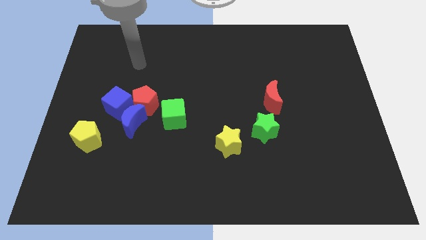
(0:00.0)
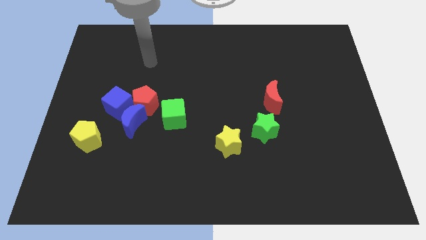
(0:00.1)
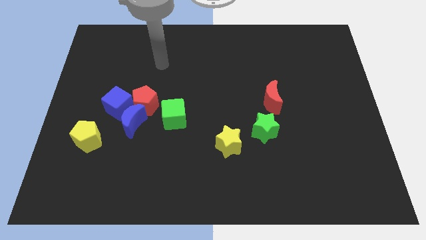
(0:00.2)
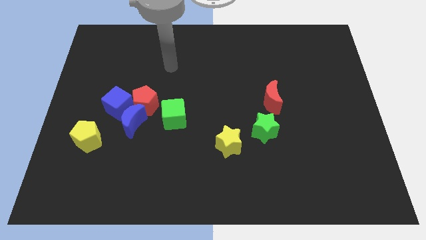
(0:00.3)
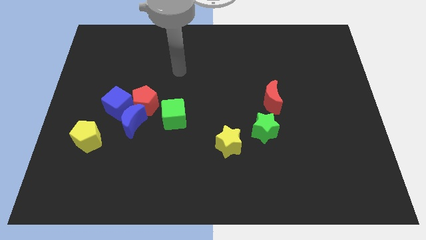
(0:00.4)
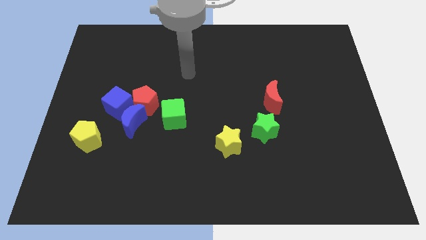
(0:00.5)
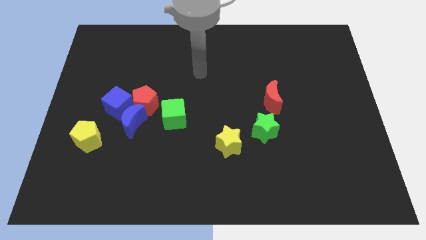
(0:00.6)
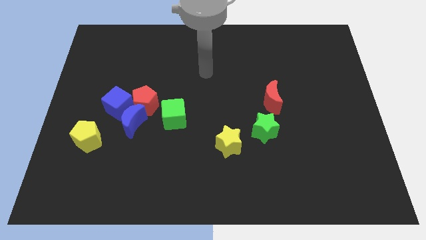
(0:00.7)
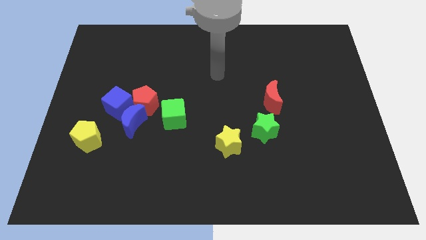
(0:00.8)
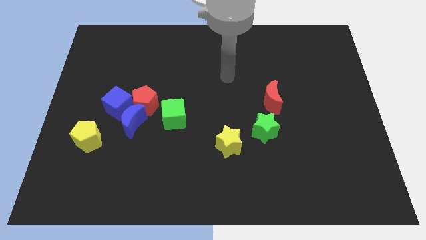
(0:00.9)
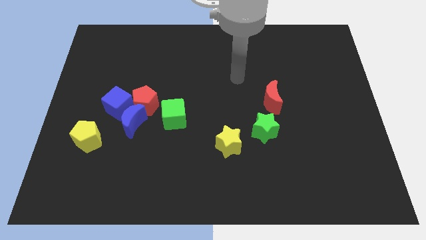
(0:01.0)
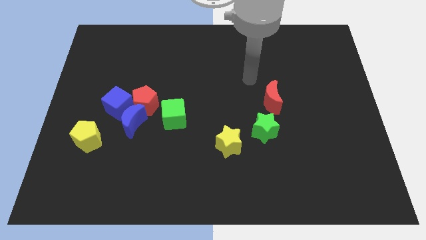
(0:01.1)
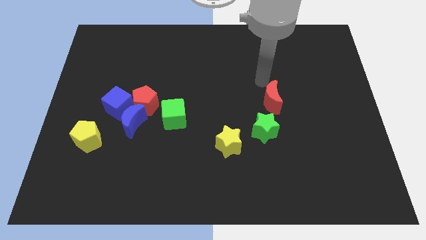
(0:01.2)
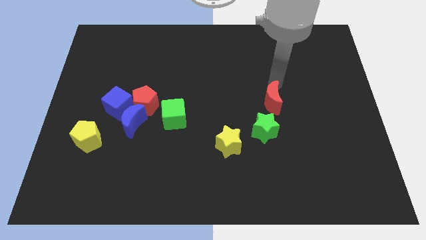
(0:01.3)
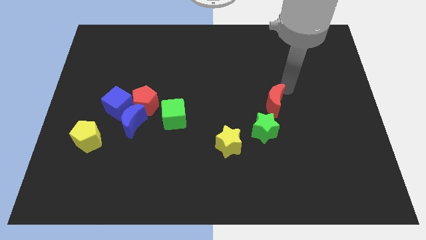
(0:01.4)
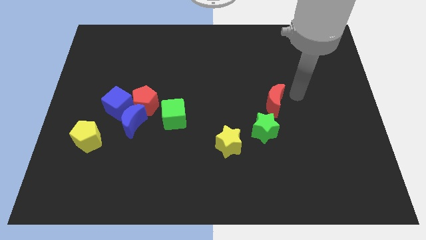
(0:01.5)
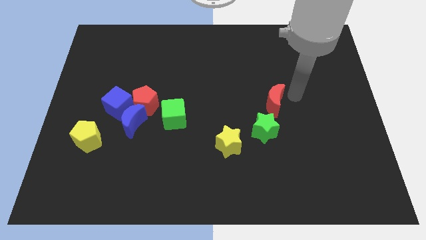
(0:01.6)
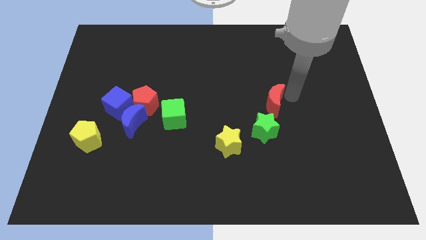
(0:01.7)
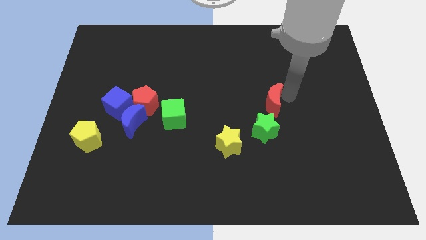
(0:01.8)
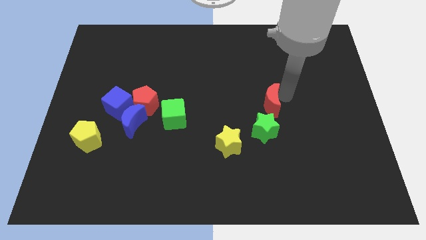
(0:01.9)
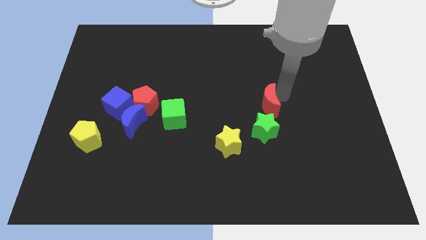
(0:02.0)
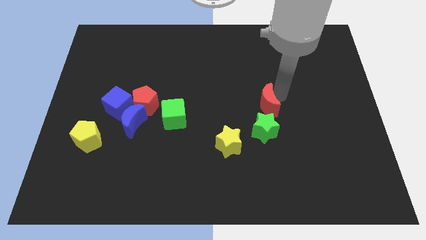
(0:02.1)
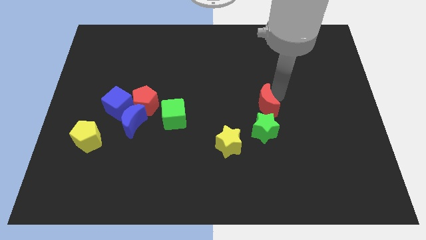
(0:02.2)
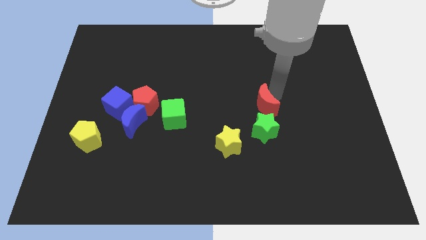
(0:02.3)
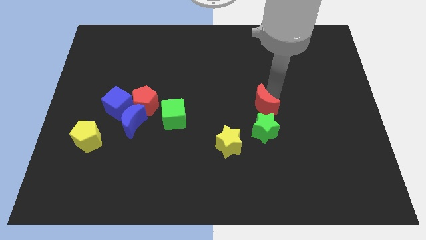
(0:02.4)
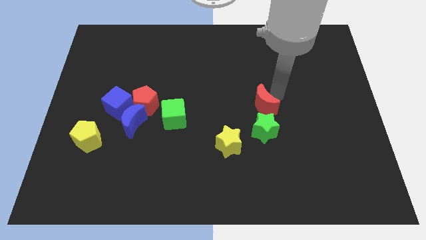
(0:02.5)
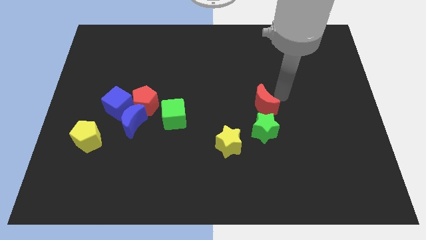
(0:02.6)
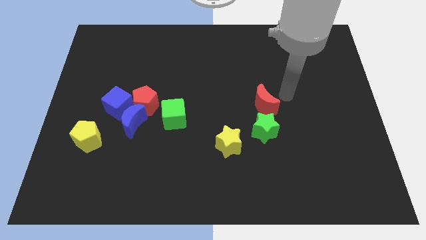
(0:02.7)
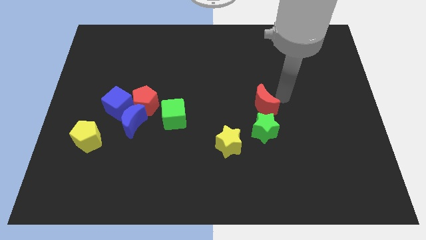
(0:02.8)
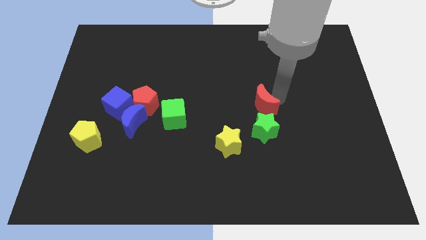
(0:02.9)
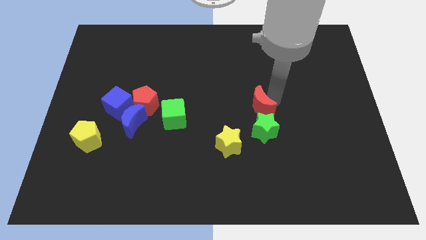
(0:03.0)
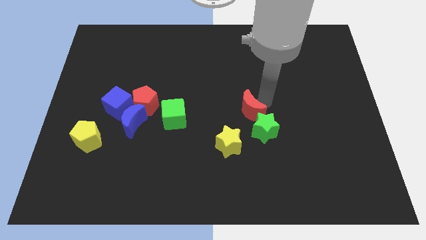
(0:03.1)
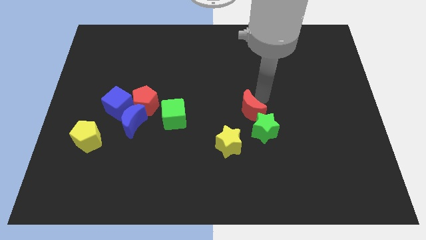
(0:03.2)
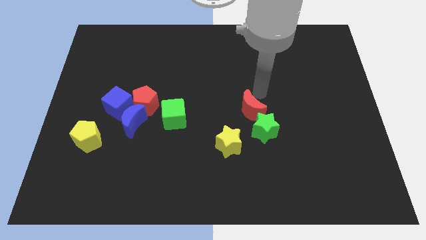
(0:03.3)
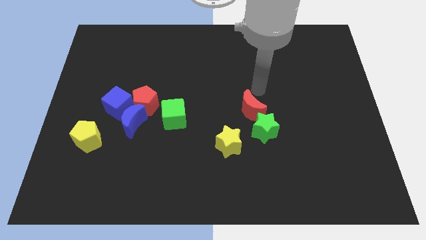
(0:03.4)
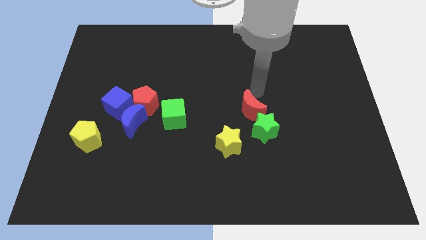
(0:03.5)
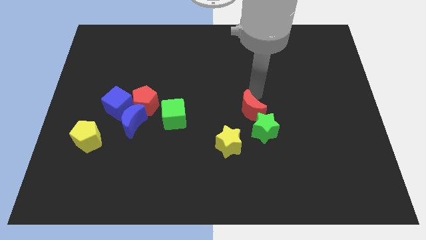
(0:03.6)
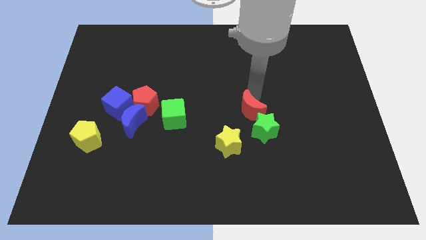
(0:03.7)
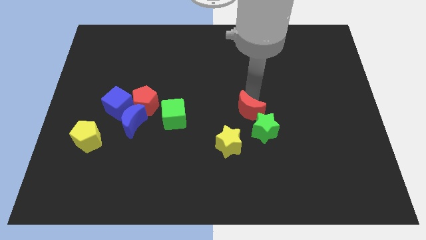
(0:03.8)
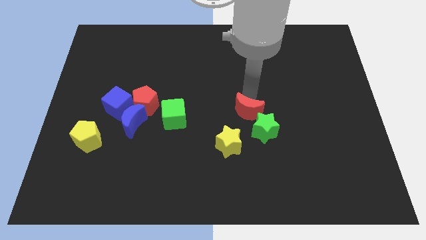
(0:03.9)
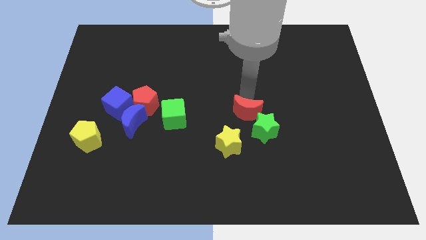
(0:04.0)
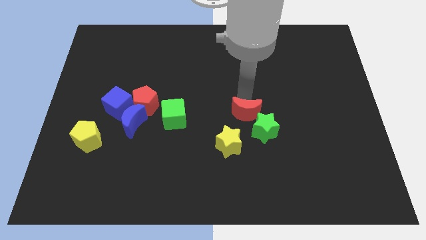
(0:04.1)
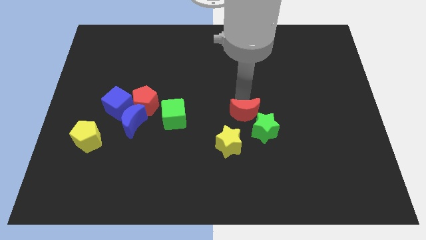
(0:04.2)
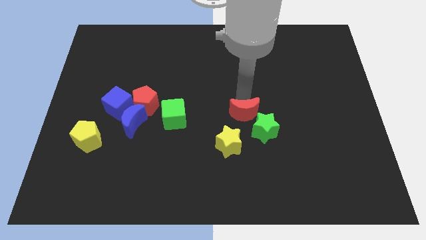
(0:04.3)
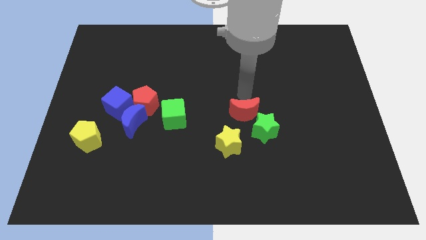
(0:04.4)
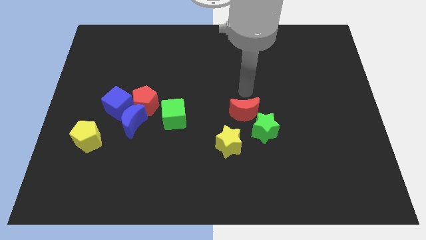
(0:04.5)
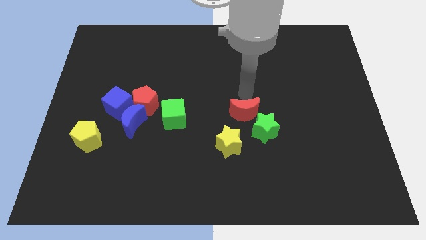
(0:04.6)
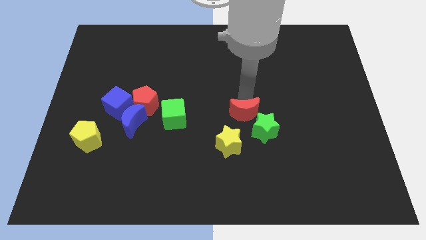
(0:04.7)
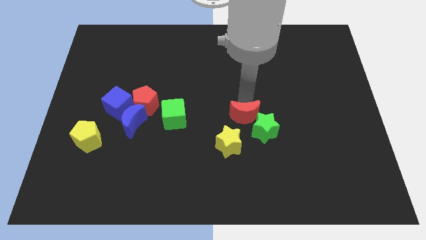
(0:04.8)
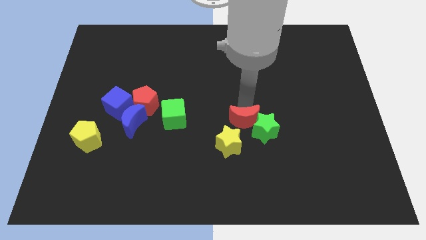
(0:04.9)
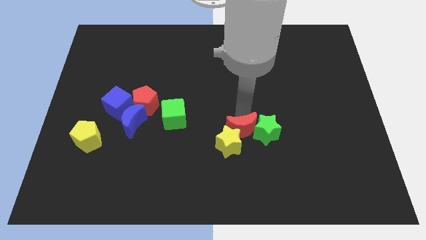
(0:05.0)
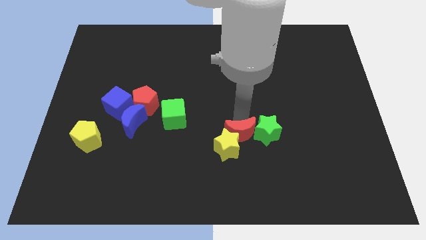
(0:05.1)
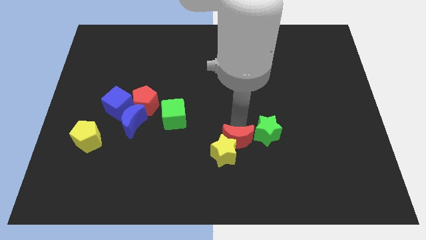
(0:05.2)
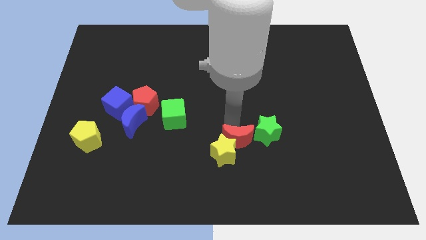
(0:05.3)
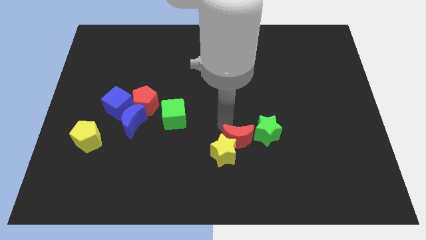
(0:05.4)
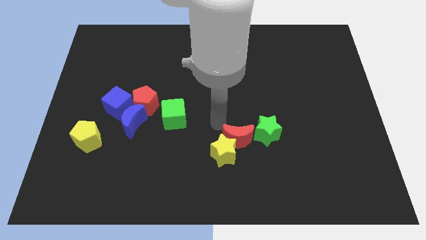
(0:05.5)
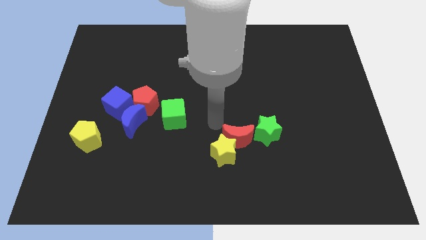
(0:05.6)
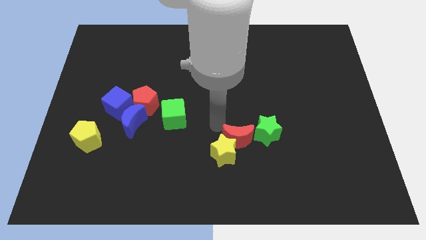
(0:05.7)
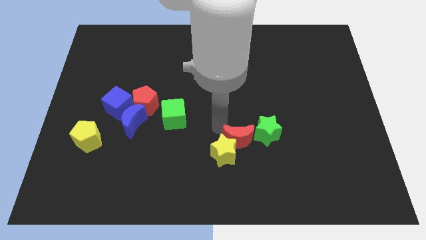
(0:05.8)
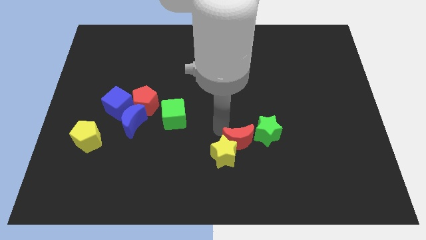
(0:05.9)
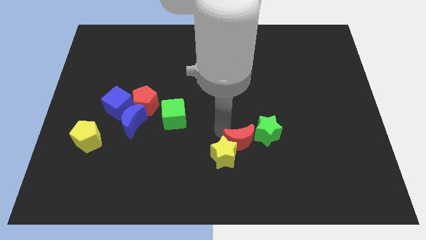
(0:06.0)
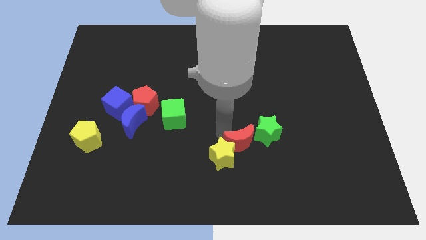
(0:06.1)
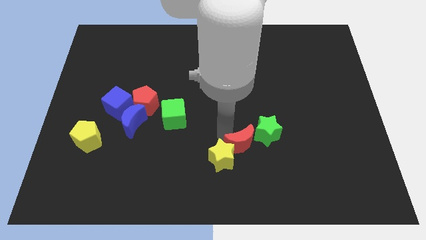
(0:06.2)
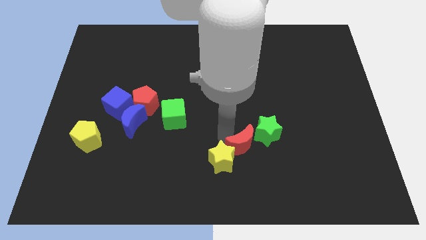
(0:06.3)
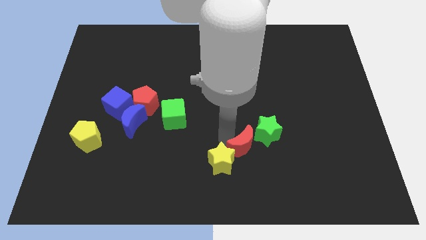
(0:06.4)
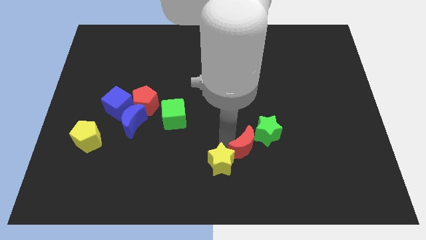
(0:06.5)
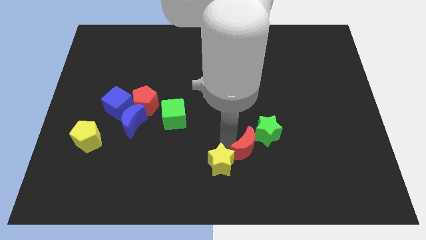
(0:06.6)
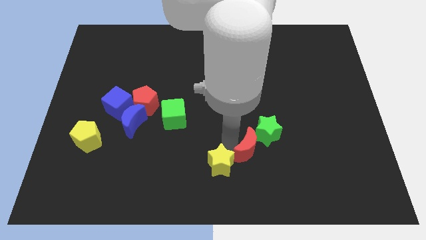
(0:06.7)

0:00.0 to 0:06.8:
move the red moon below the green star
